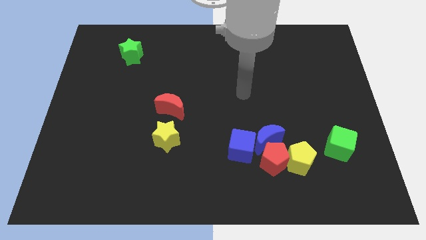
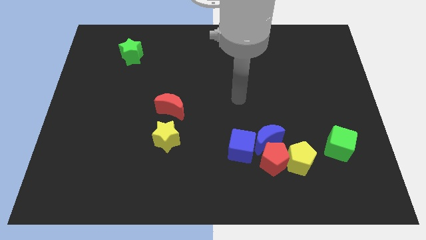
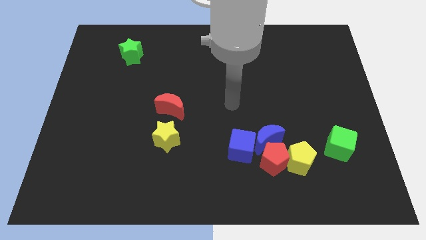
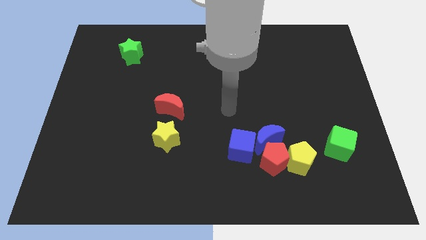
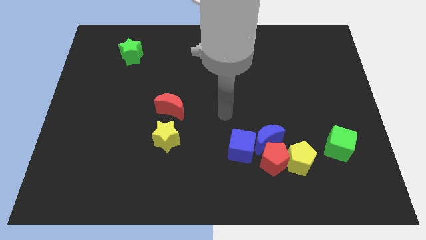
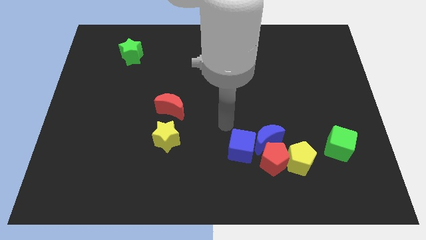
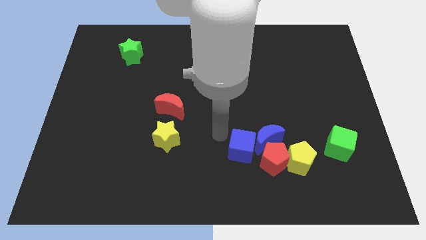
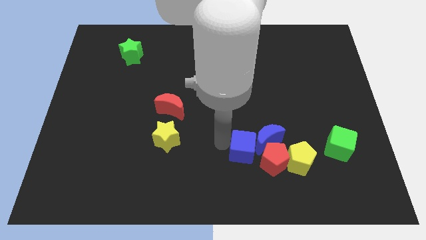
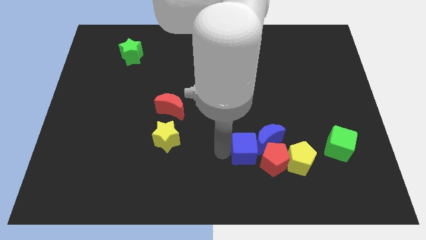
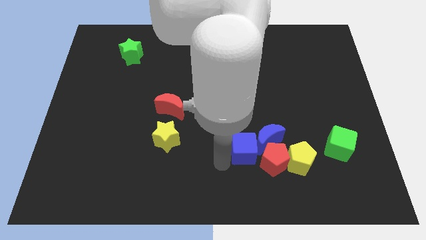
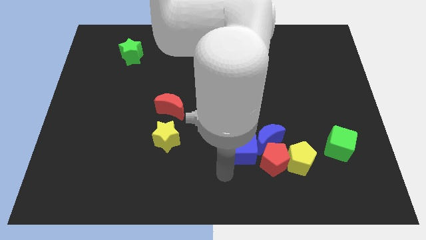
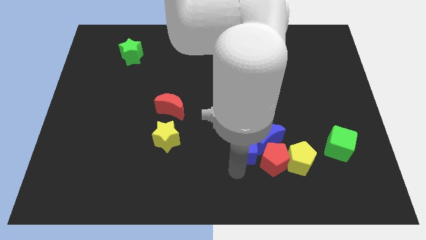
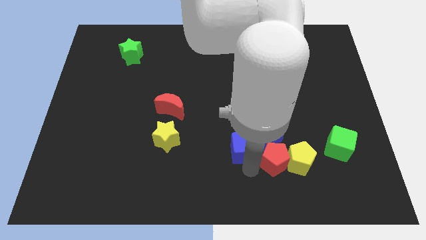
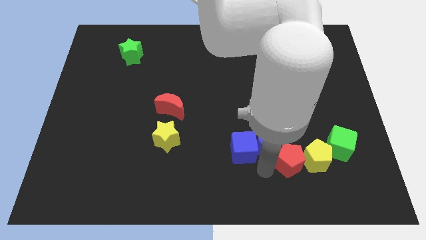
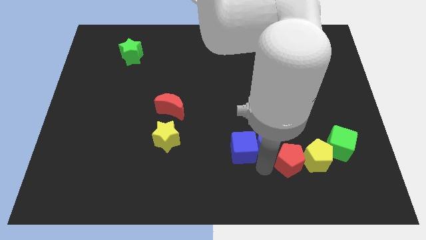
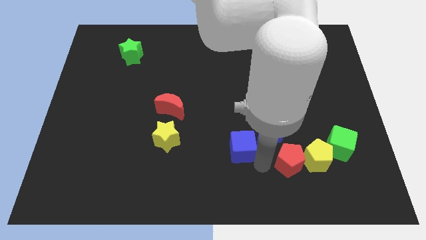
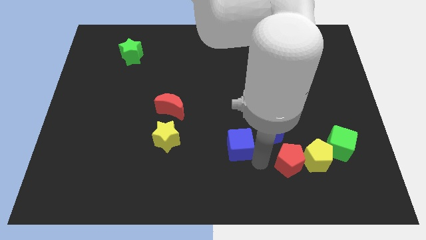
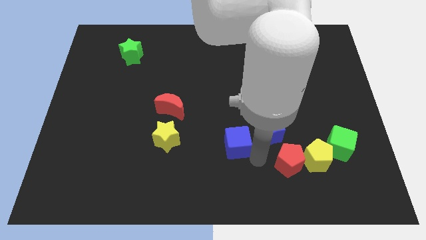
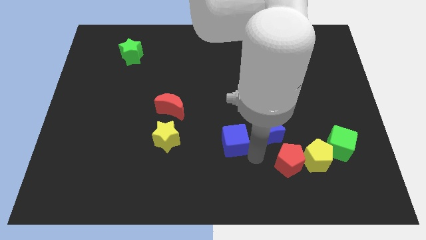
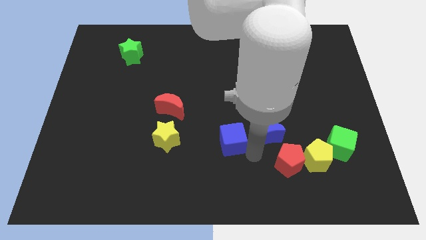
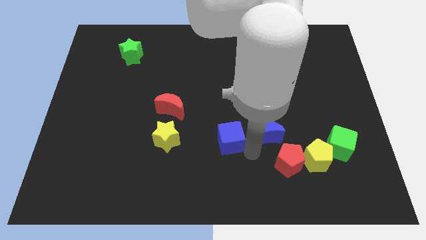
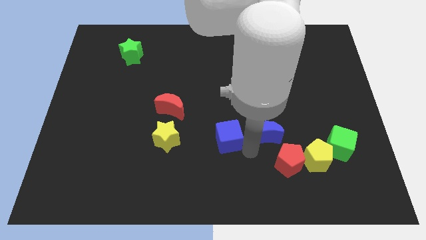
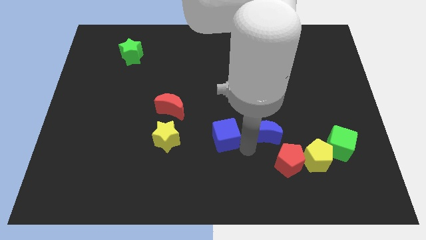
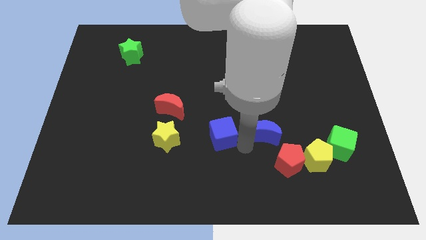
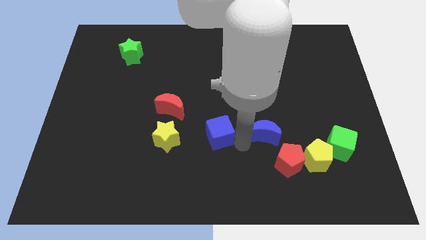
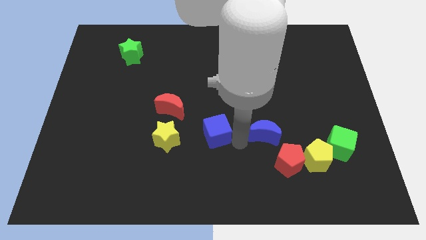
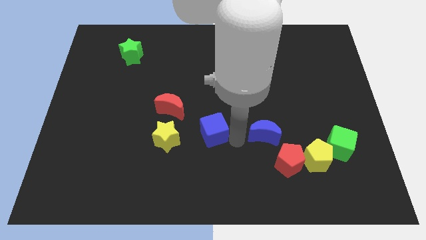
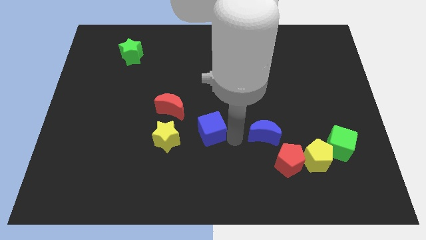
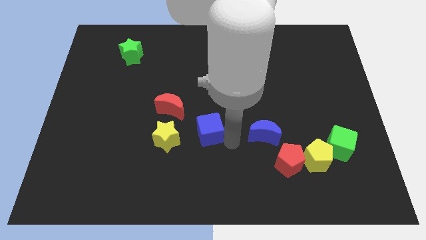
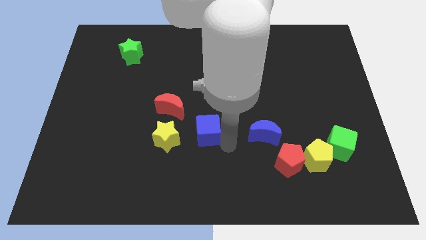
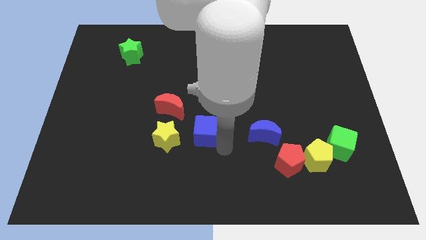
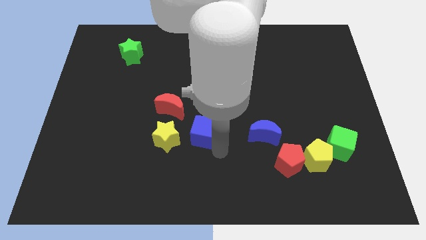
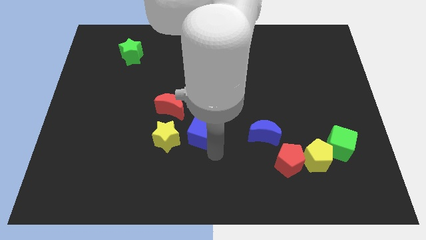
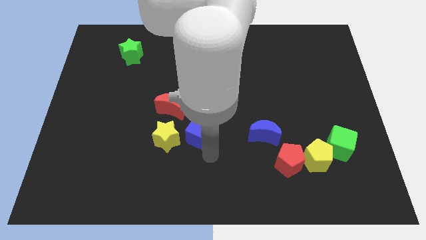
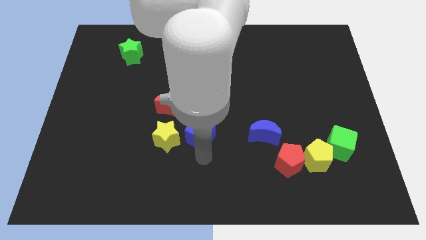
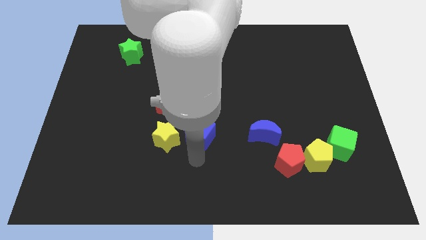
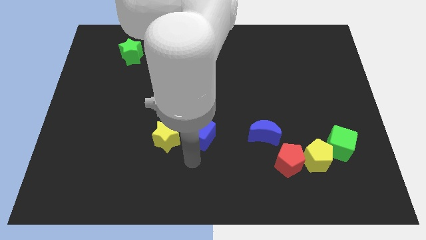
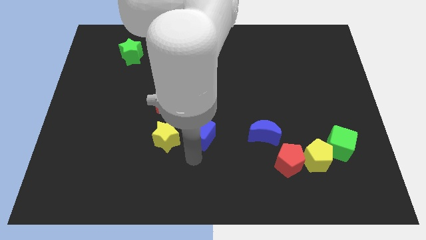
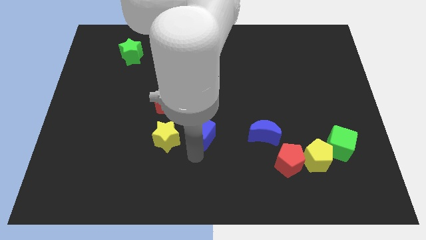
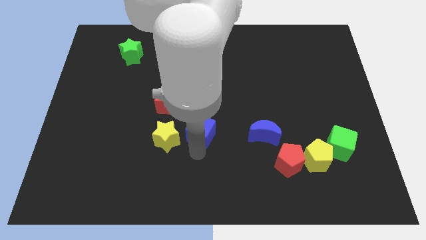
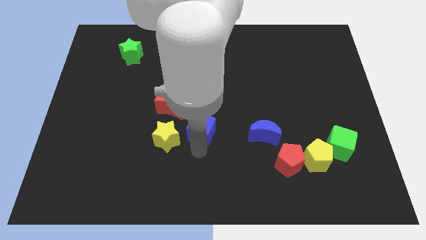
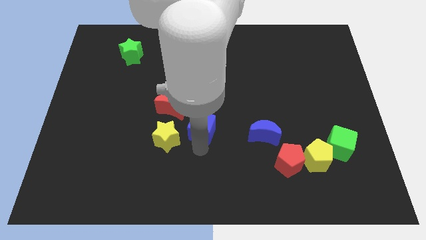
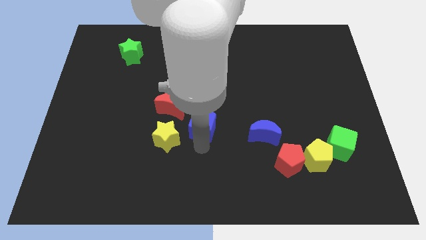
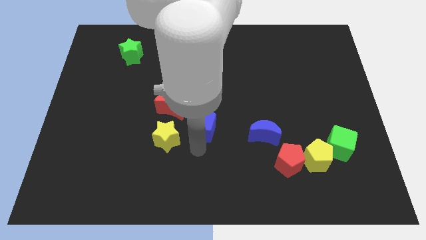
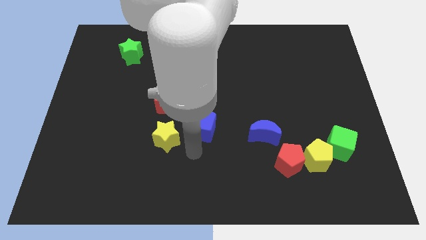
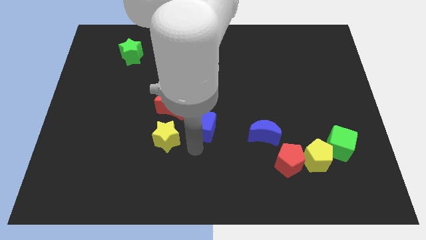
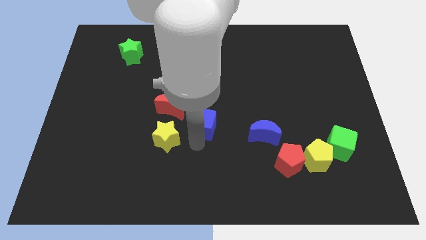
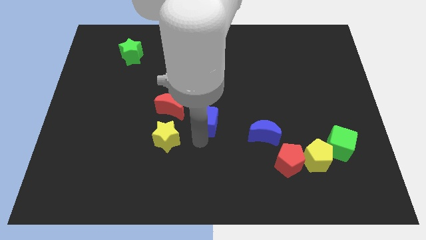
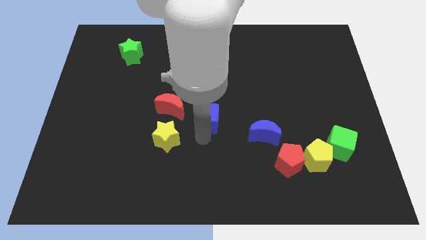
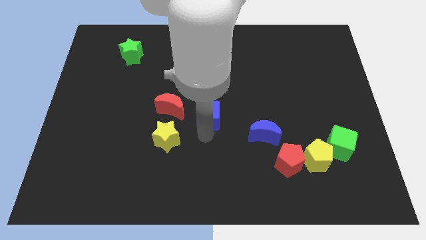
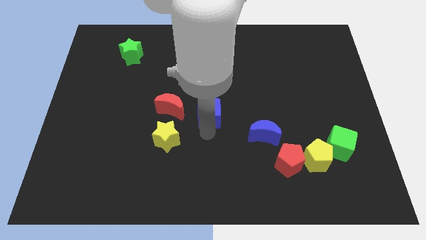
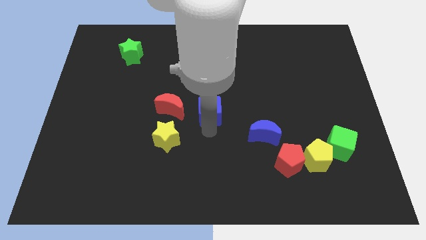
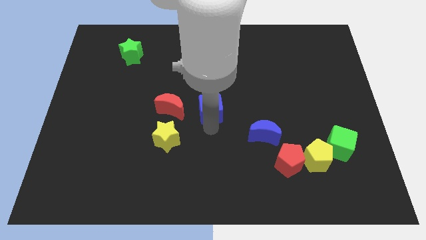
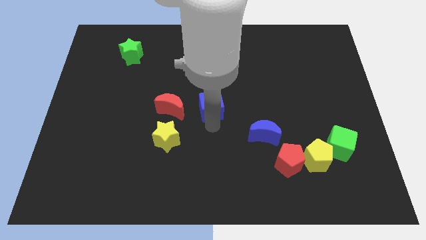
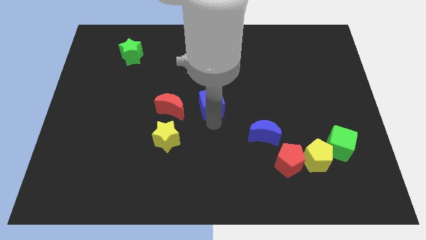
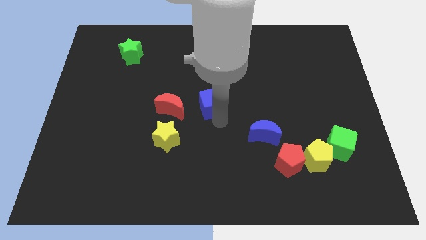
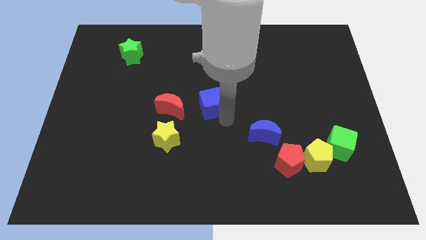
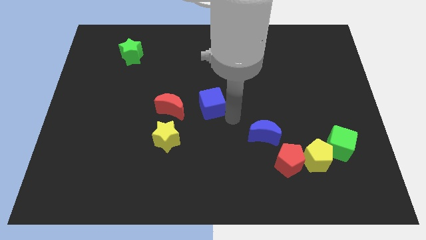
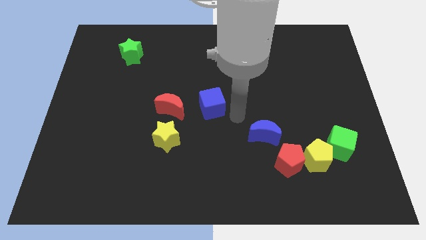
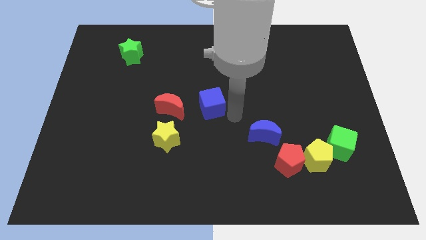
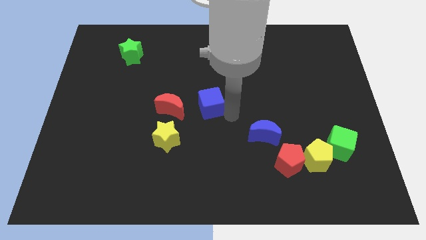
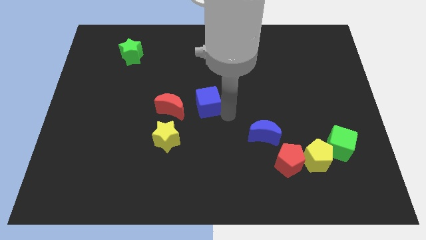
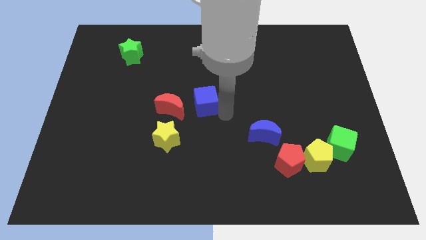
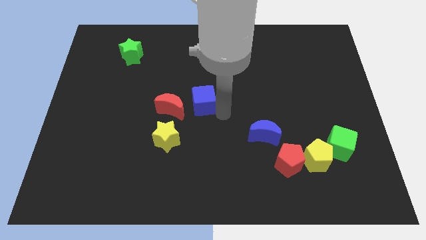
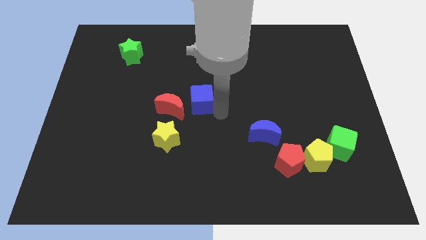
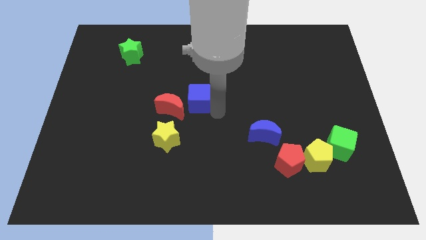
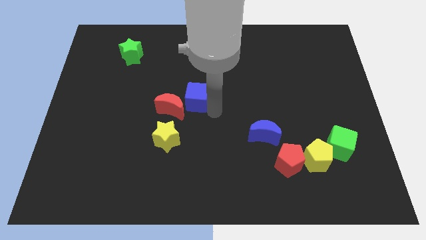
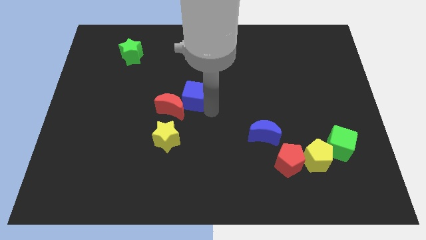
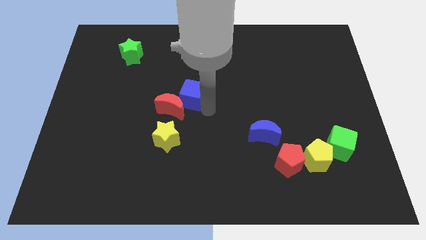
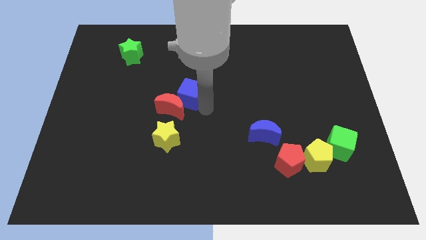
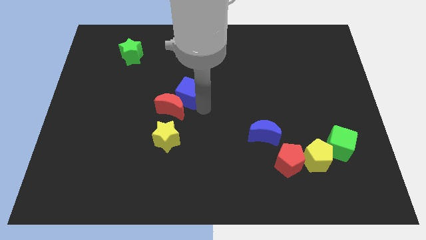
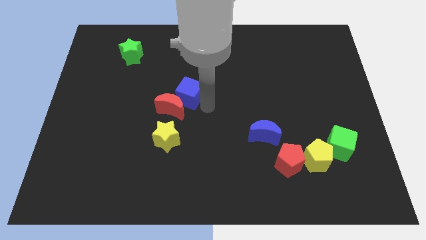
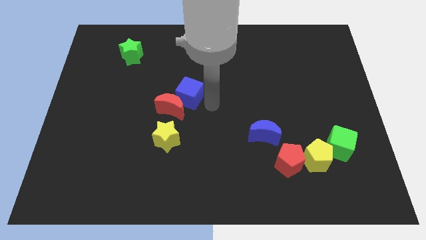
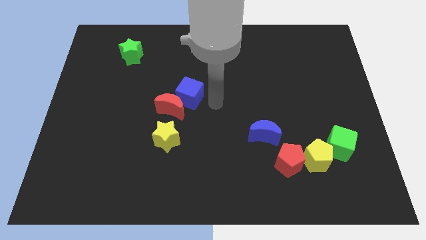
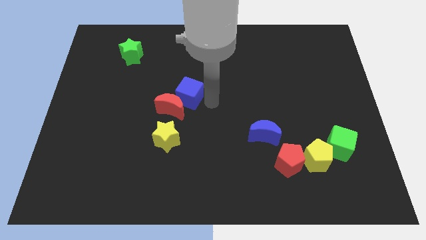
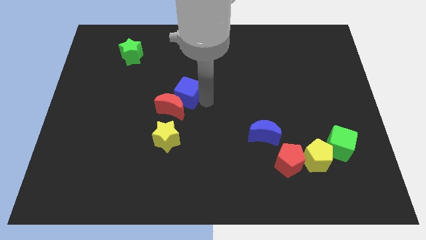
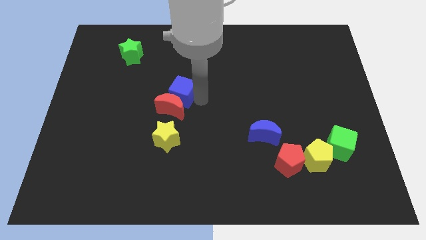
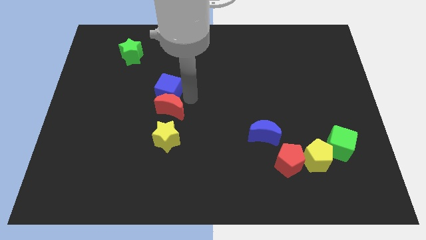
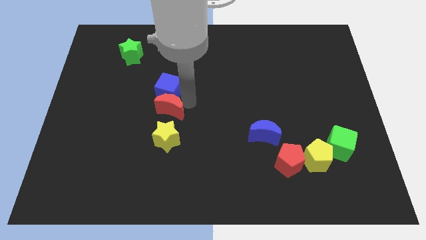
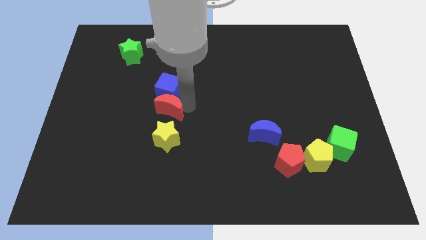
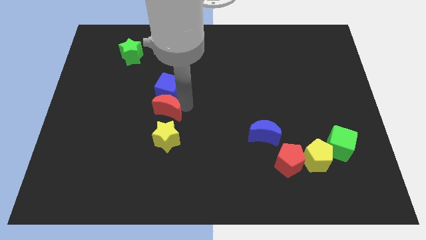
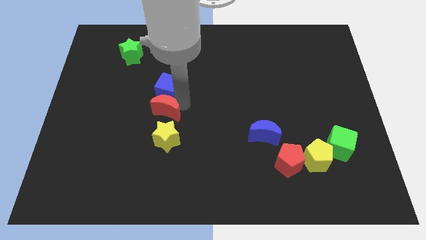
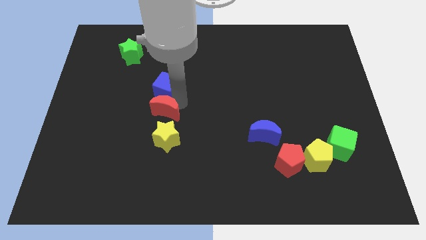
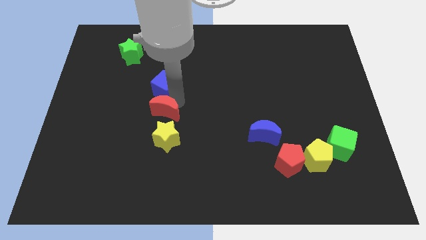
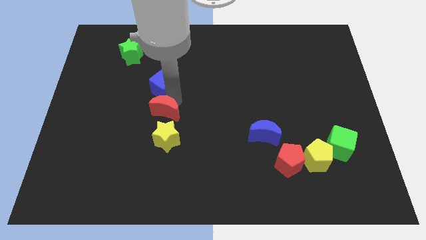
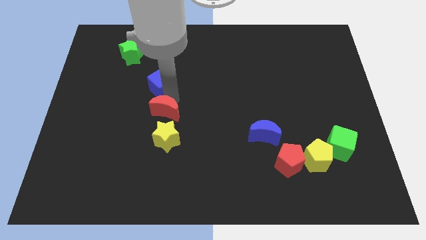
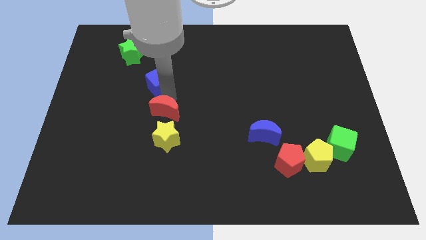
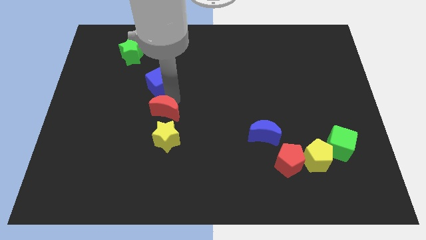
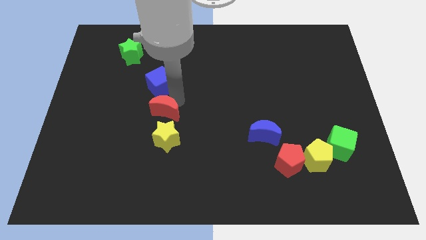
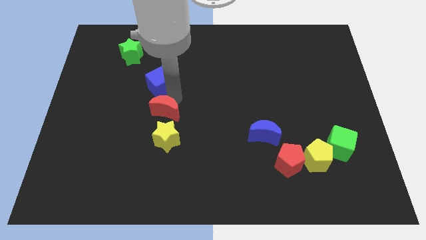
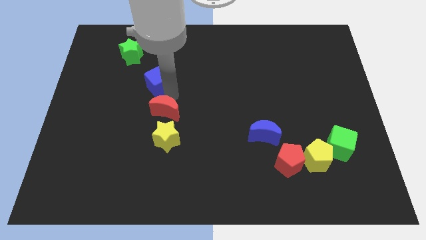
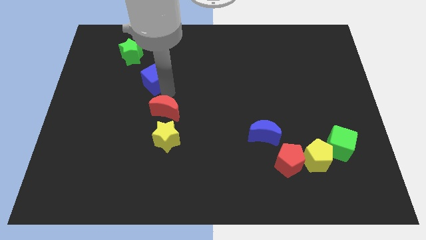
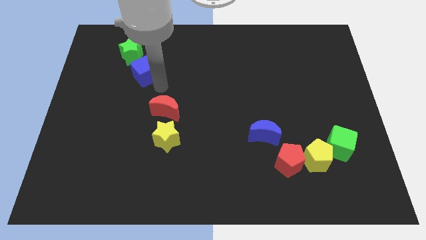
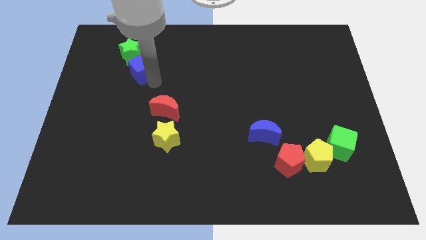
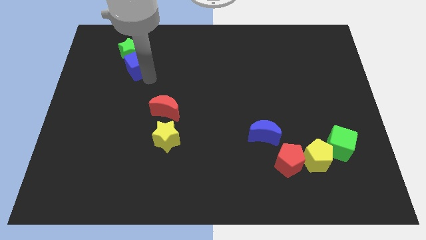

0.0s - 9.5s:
push the blue cube close to the green star
